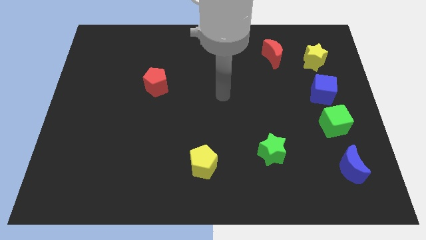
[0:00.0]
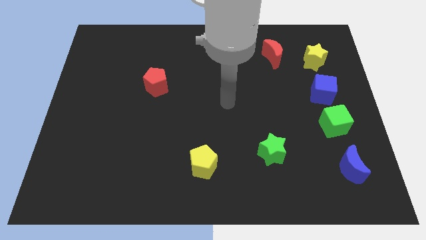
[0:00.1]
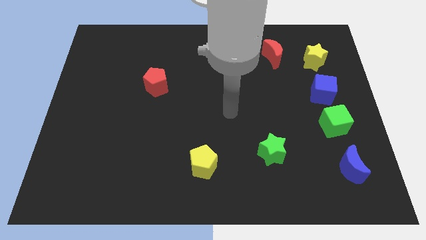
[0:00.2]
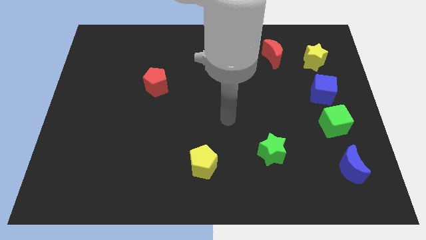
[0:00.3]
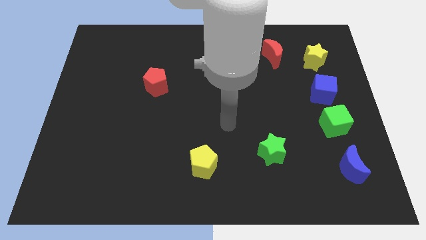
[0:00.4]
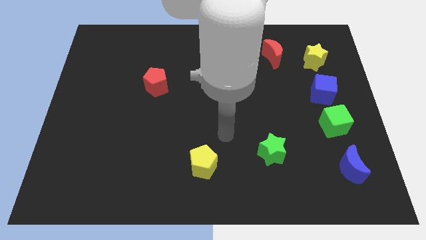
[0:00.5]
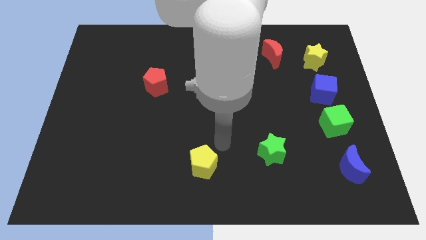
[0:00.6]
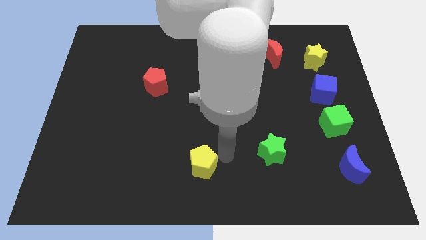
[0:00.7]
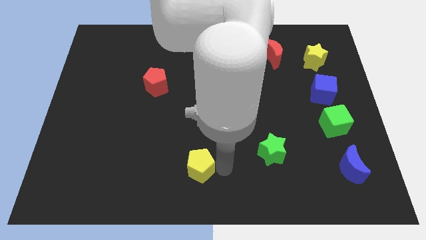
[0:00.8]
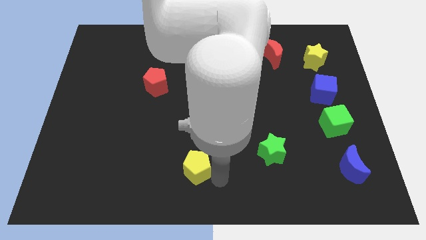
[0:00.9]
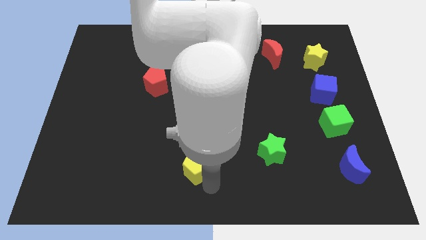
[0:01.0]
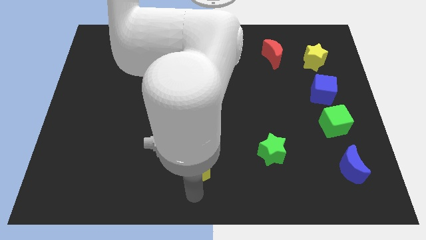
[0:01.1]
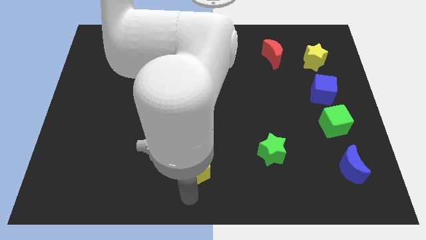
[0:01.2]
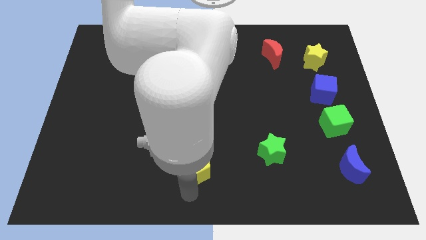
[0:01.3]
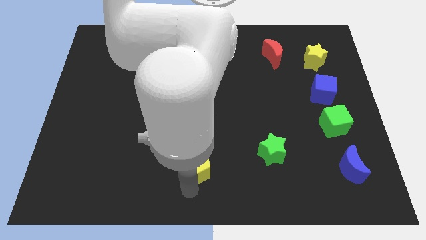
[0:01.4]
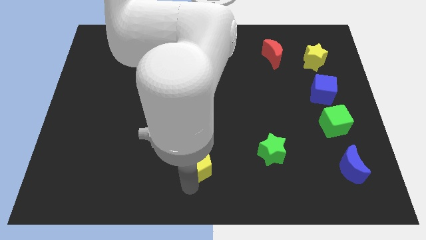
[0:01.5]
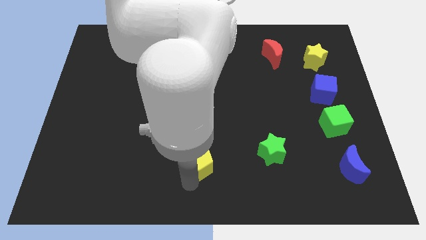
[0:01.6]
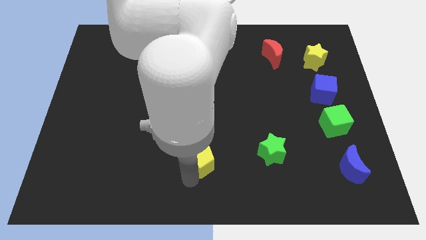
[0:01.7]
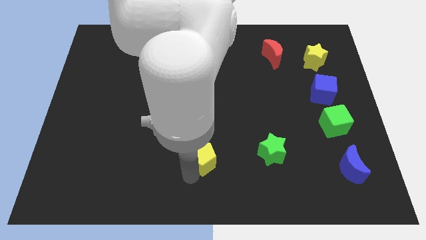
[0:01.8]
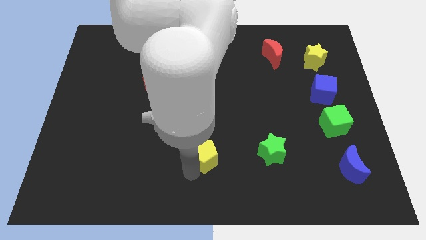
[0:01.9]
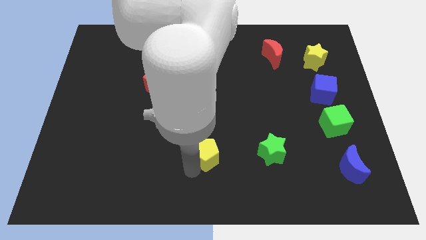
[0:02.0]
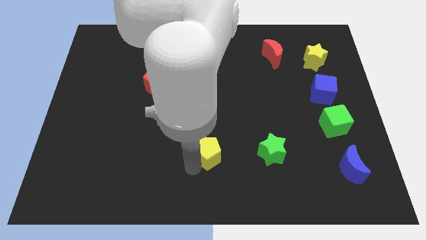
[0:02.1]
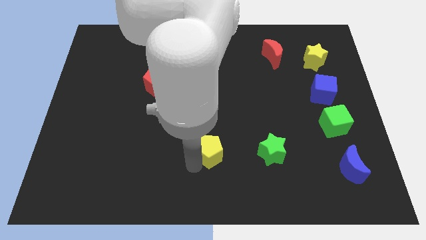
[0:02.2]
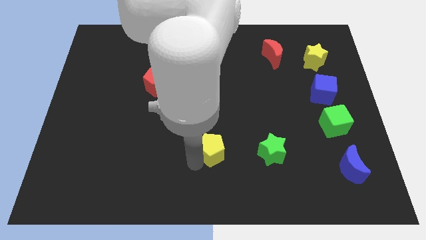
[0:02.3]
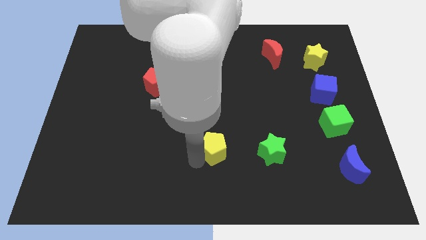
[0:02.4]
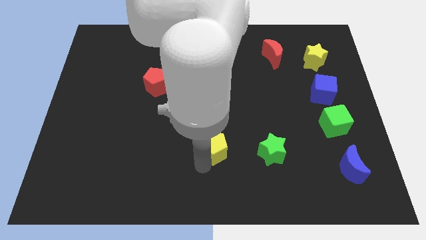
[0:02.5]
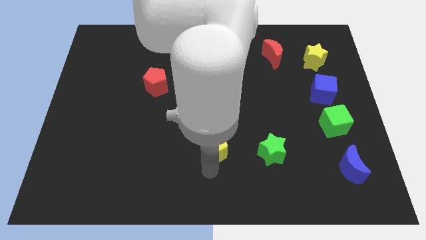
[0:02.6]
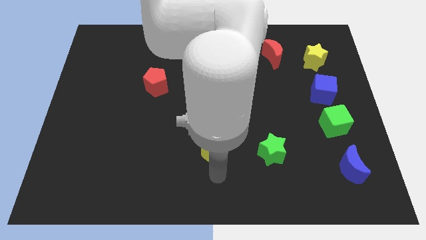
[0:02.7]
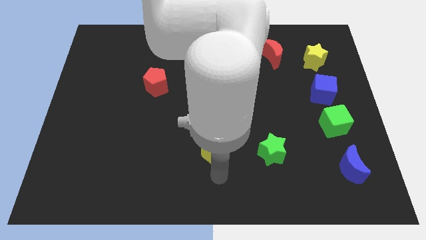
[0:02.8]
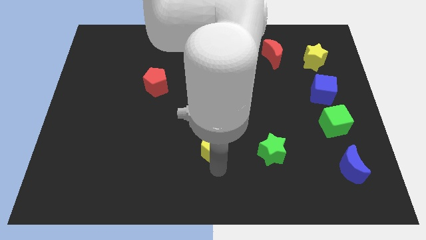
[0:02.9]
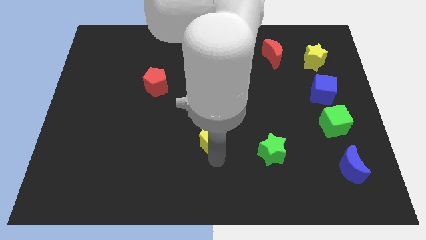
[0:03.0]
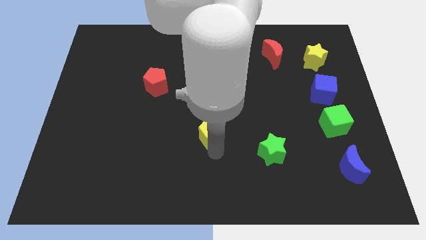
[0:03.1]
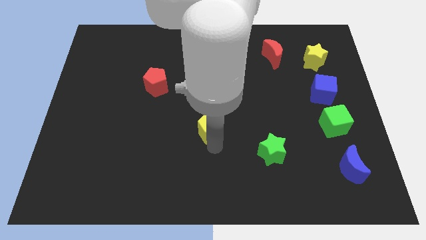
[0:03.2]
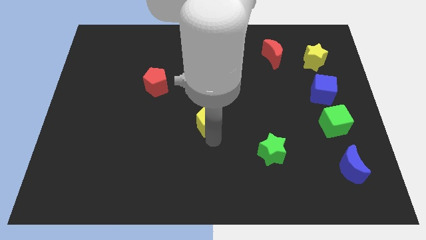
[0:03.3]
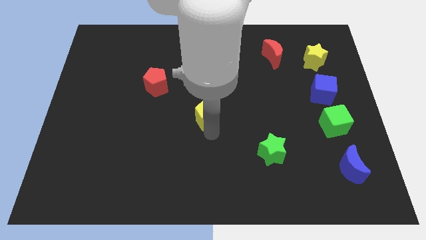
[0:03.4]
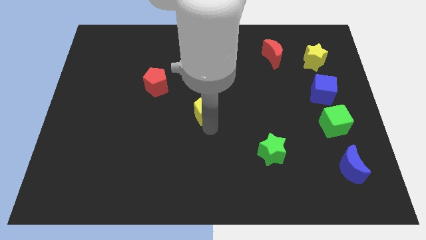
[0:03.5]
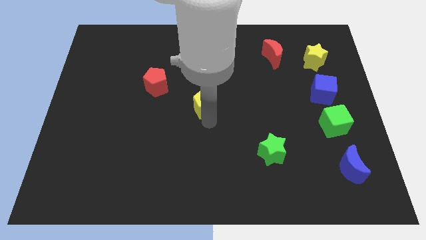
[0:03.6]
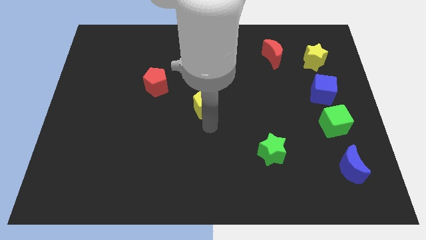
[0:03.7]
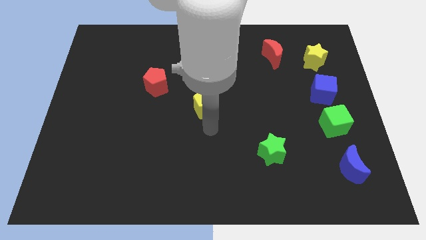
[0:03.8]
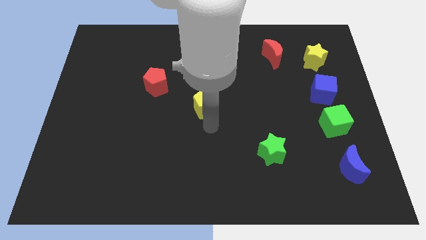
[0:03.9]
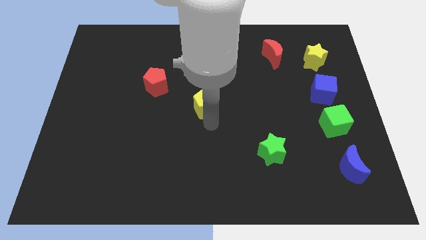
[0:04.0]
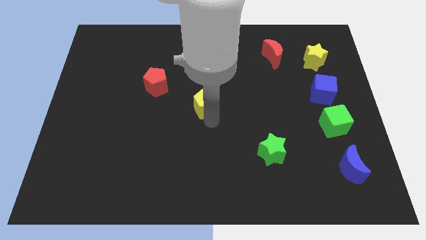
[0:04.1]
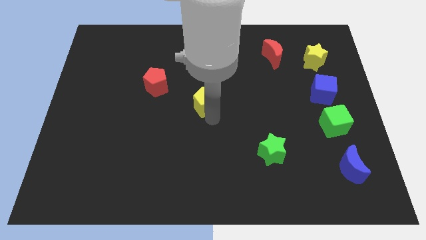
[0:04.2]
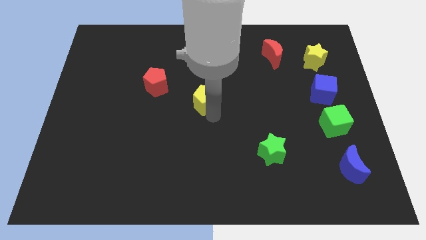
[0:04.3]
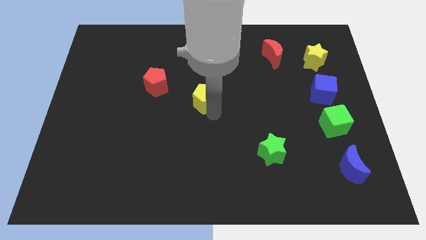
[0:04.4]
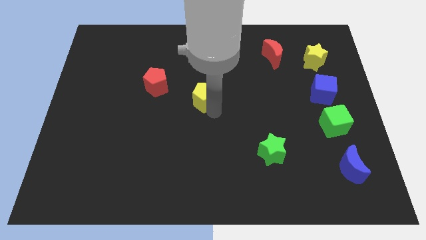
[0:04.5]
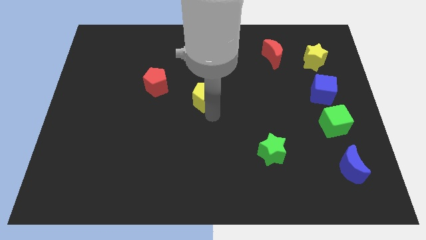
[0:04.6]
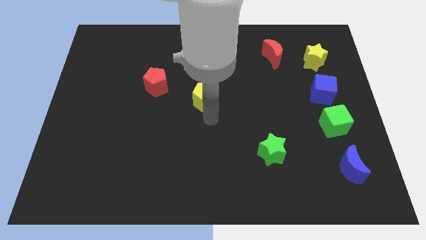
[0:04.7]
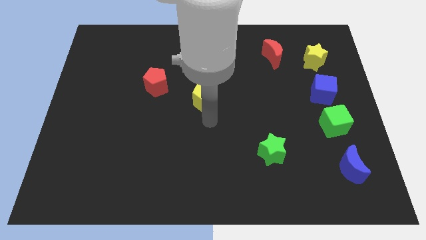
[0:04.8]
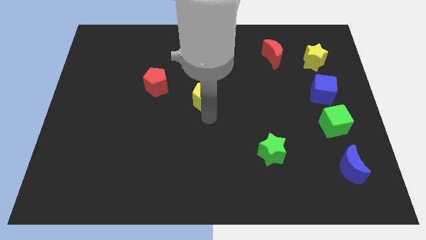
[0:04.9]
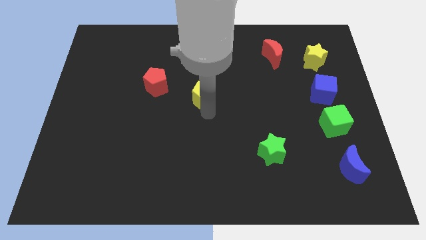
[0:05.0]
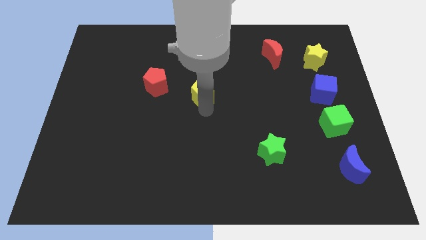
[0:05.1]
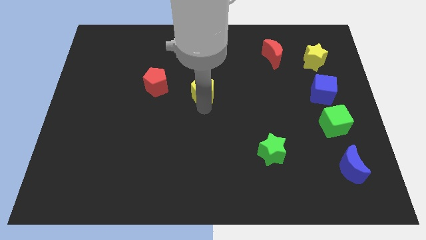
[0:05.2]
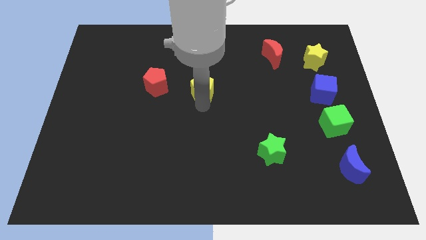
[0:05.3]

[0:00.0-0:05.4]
slide the yellow pentagon upwards

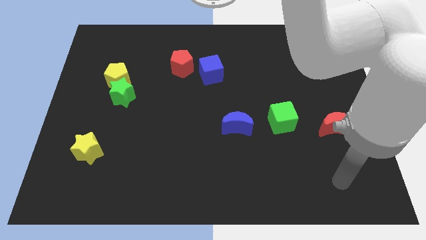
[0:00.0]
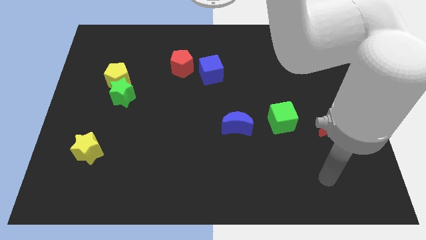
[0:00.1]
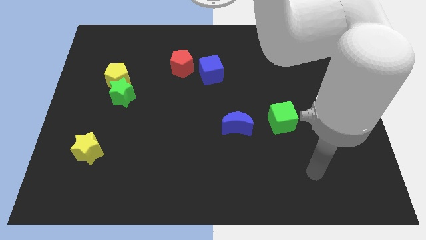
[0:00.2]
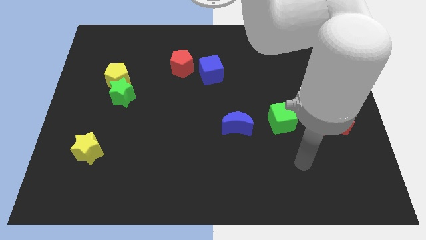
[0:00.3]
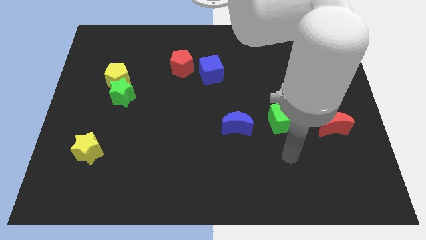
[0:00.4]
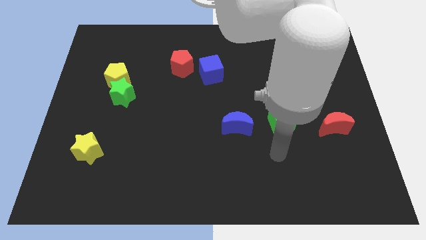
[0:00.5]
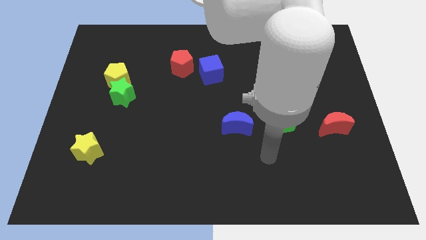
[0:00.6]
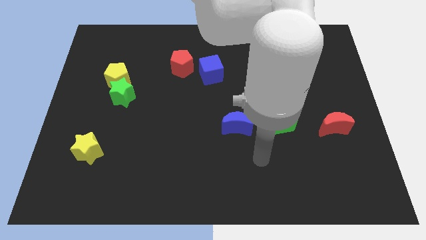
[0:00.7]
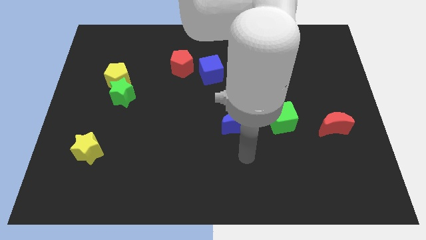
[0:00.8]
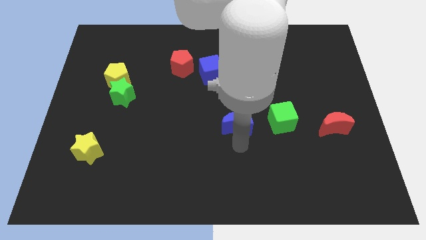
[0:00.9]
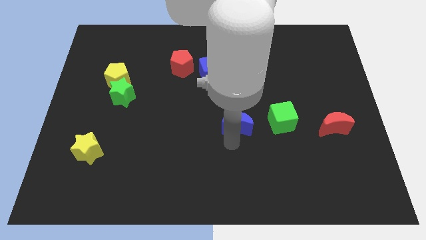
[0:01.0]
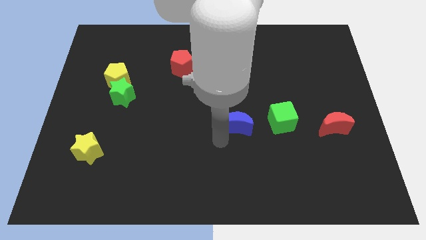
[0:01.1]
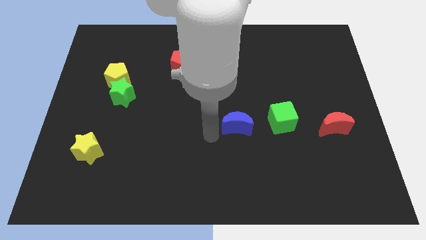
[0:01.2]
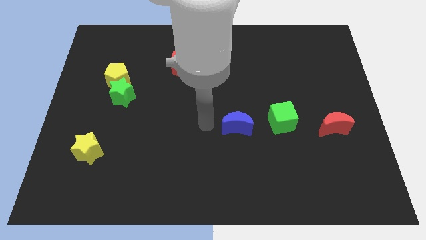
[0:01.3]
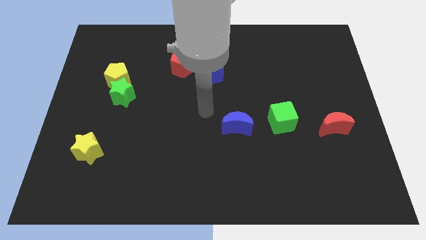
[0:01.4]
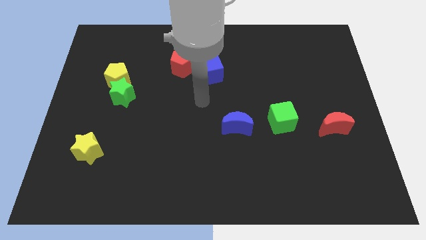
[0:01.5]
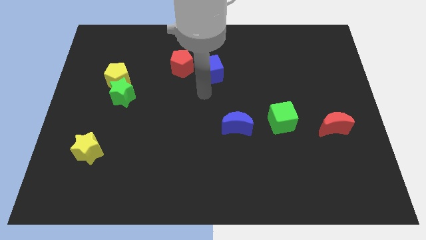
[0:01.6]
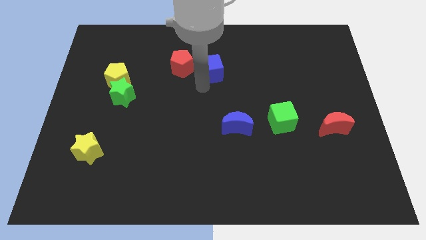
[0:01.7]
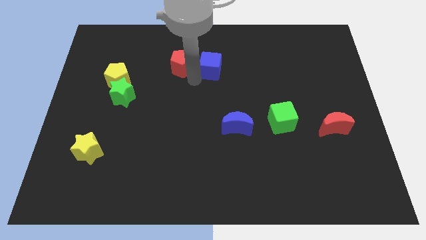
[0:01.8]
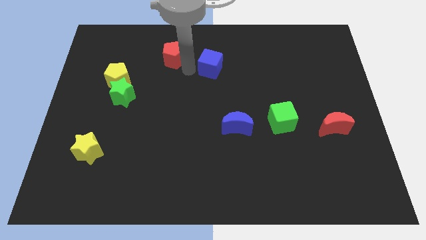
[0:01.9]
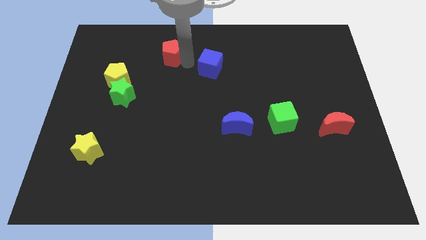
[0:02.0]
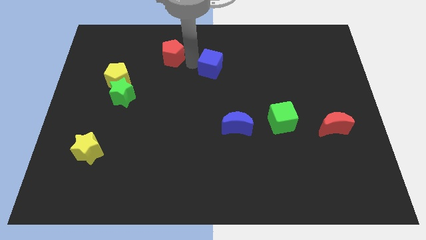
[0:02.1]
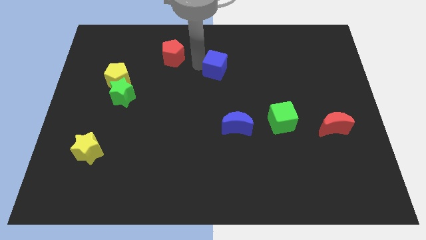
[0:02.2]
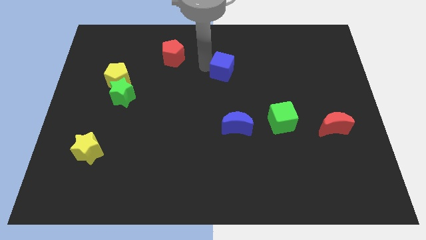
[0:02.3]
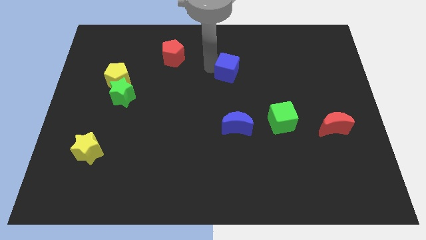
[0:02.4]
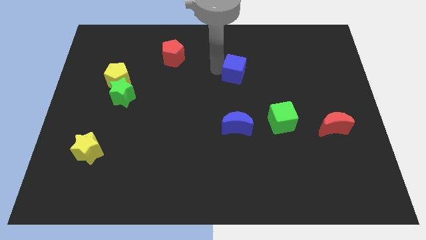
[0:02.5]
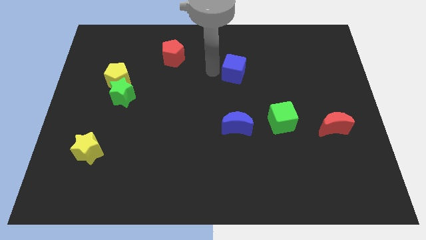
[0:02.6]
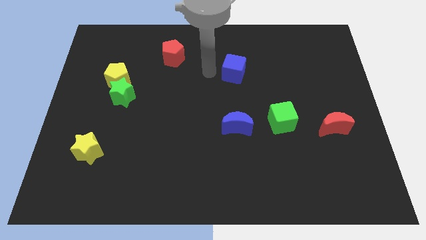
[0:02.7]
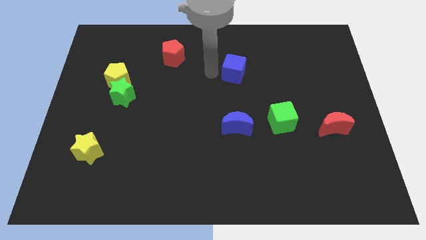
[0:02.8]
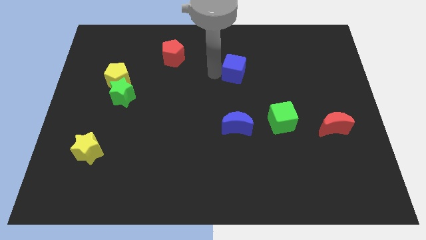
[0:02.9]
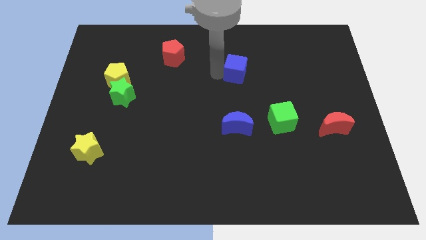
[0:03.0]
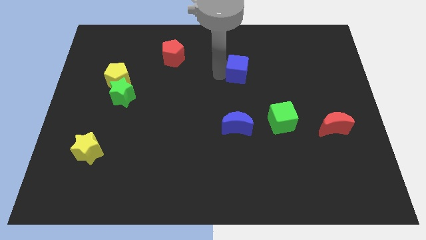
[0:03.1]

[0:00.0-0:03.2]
push the blue cube right slightly
